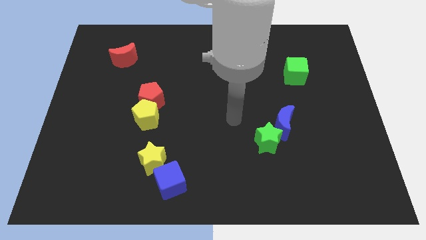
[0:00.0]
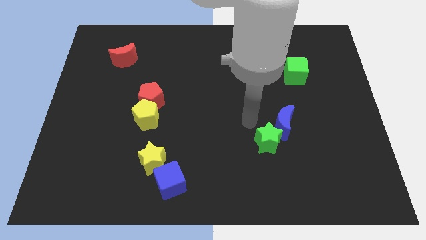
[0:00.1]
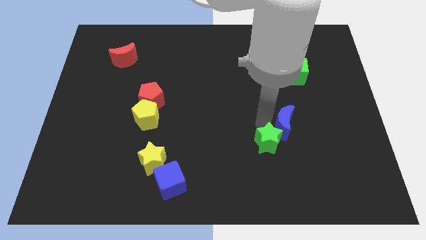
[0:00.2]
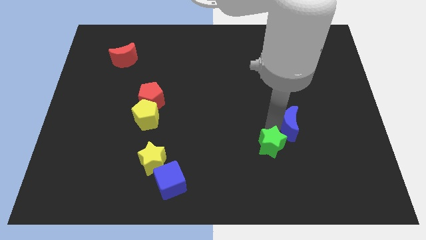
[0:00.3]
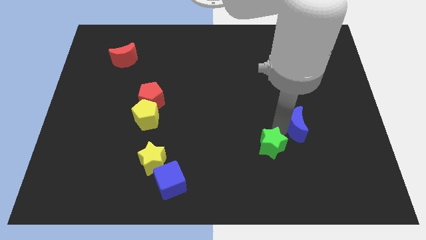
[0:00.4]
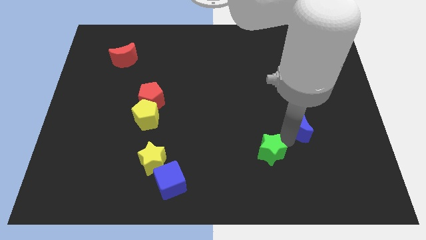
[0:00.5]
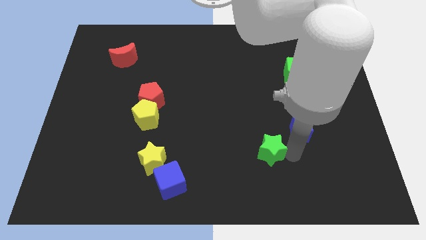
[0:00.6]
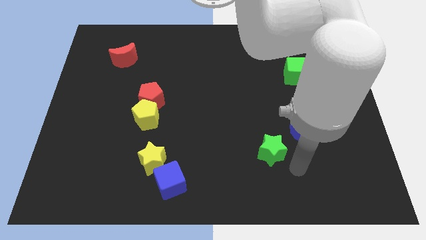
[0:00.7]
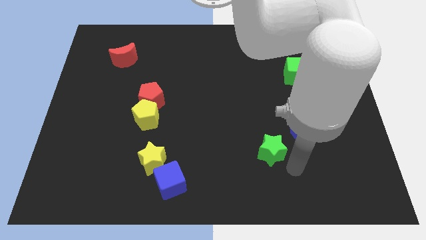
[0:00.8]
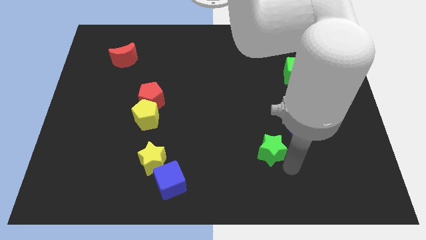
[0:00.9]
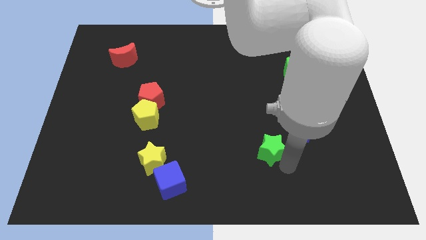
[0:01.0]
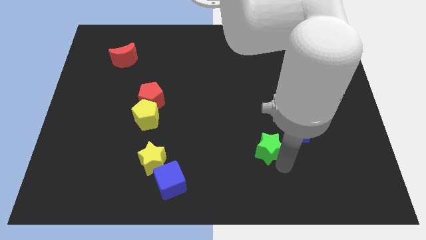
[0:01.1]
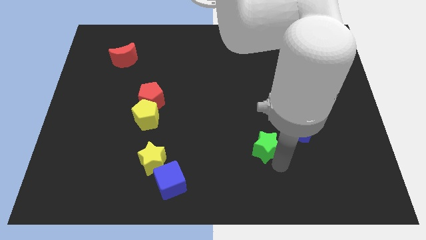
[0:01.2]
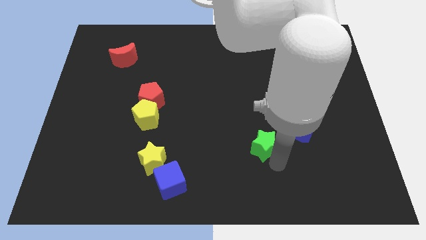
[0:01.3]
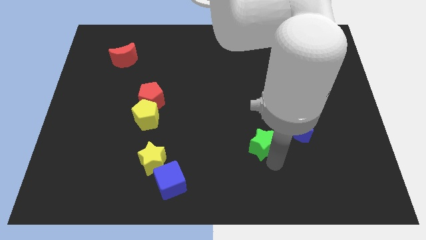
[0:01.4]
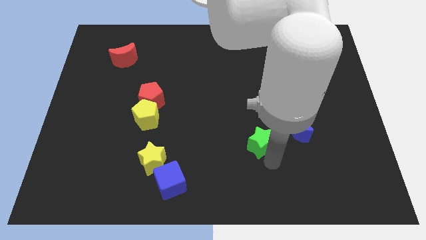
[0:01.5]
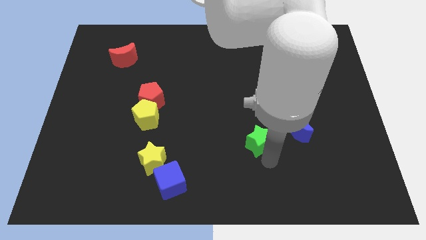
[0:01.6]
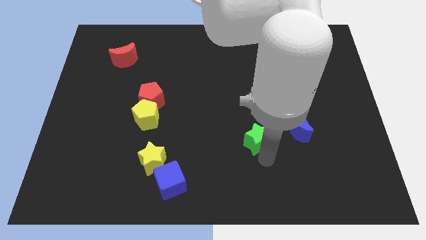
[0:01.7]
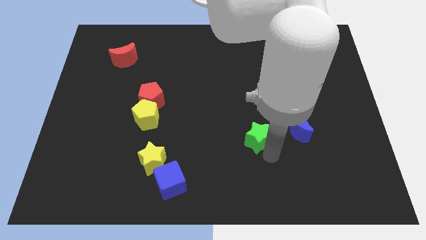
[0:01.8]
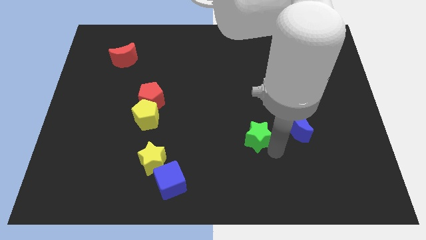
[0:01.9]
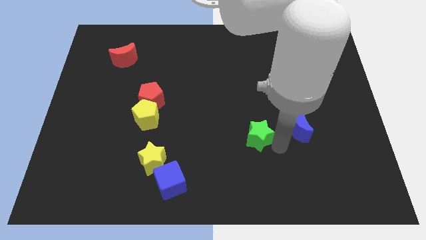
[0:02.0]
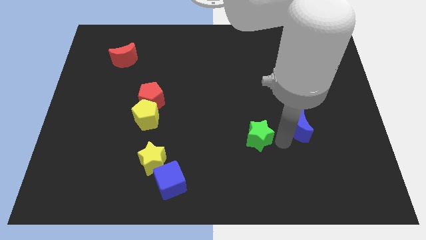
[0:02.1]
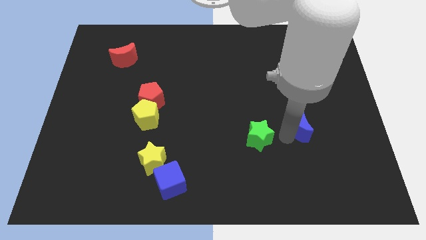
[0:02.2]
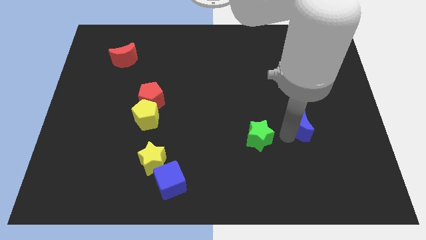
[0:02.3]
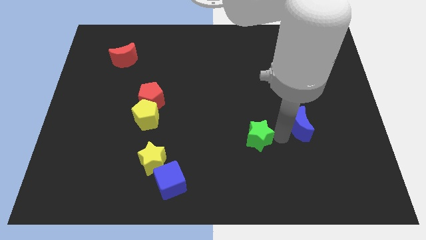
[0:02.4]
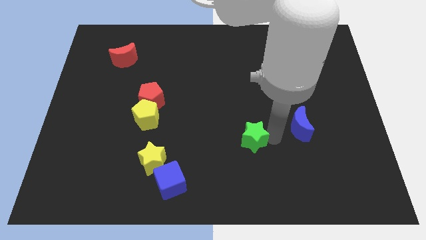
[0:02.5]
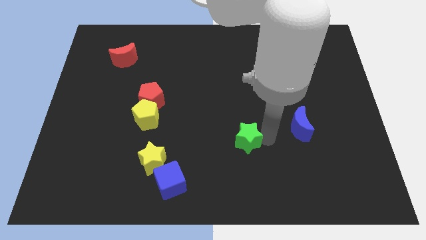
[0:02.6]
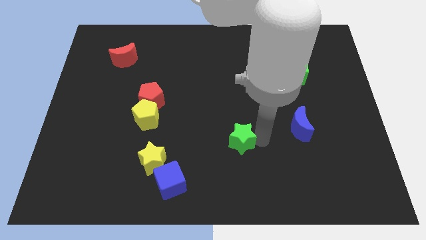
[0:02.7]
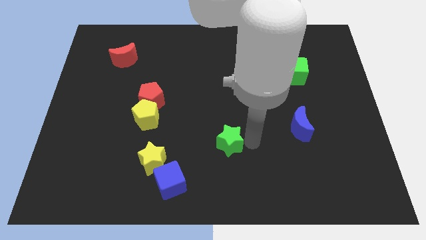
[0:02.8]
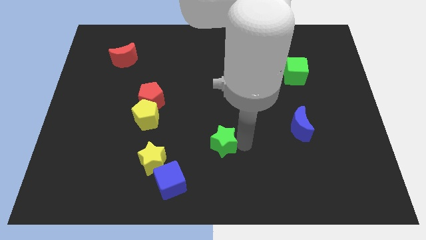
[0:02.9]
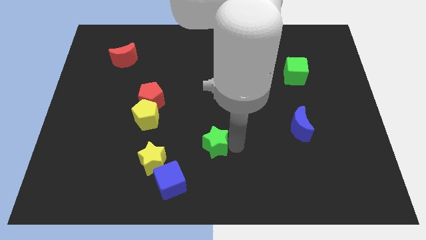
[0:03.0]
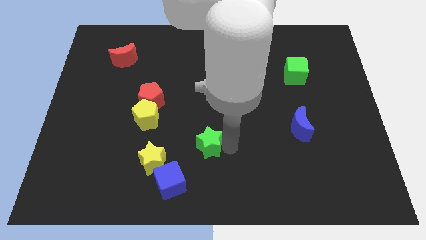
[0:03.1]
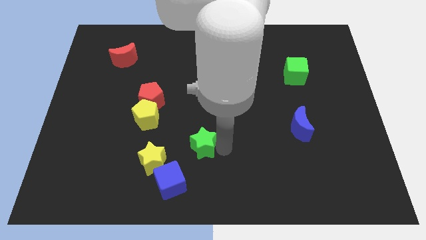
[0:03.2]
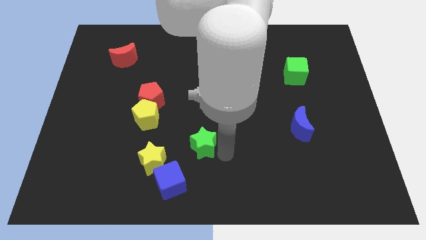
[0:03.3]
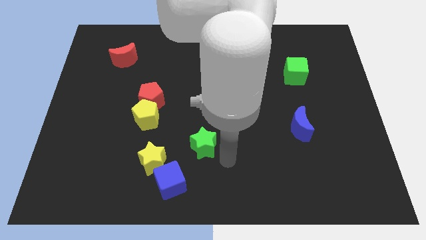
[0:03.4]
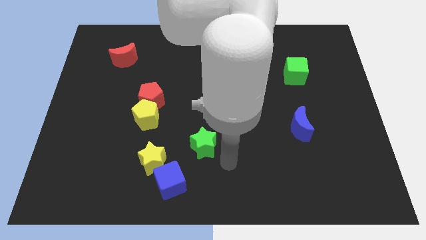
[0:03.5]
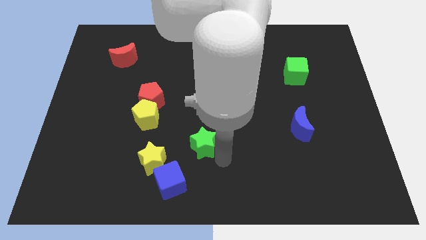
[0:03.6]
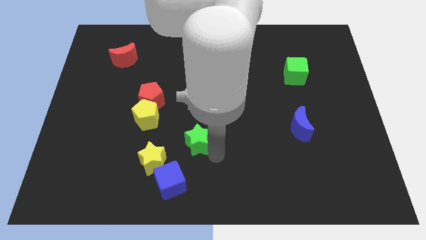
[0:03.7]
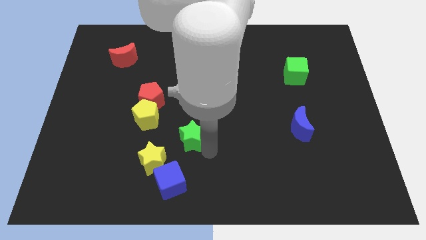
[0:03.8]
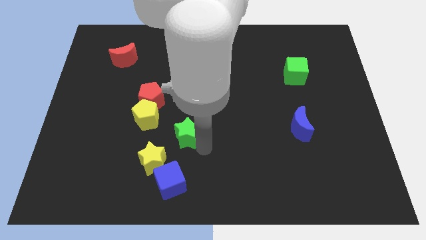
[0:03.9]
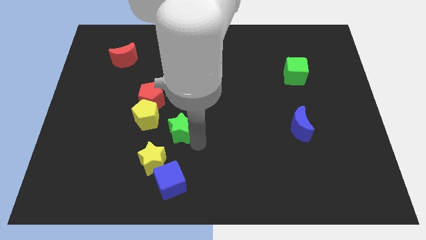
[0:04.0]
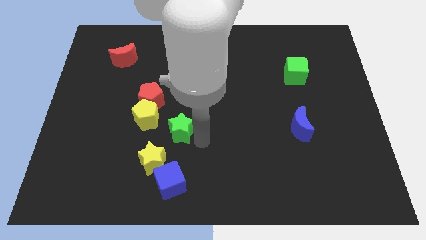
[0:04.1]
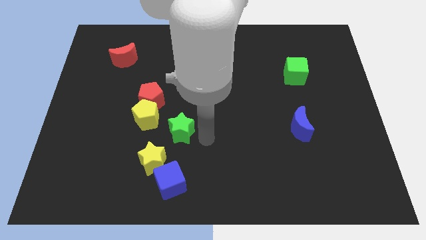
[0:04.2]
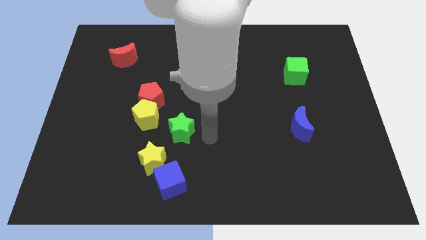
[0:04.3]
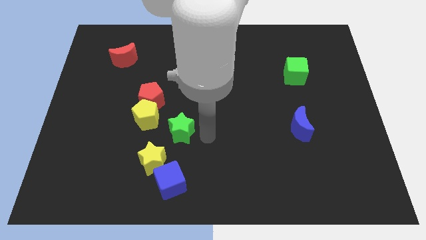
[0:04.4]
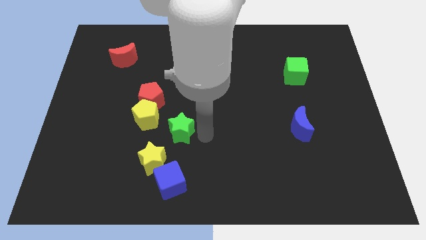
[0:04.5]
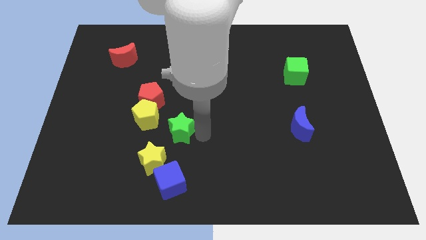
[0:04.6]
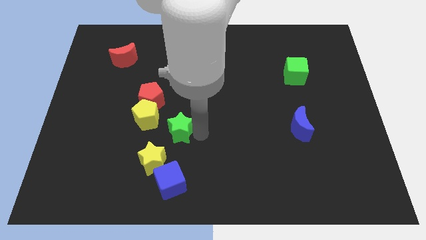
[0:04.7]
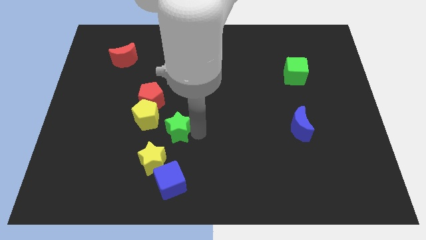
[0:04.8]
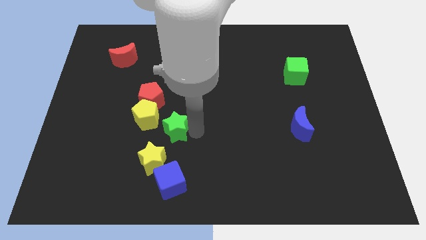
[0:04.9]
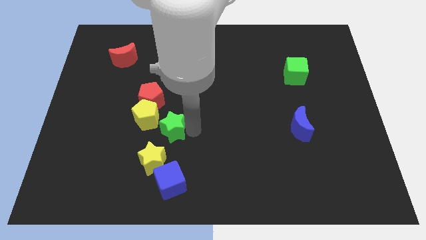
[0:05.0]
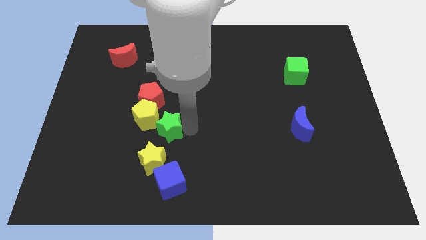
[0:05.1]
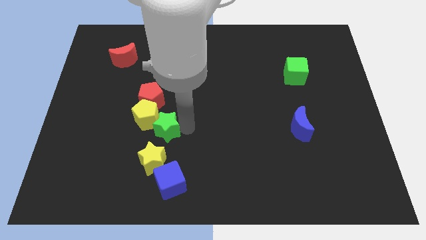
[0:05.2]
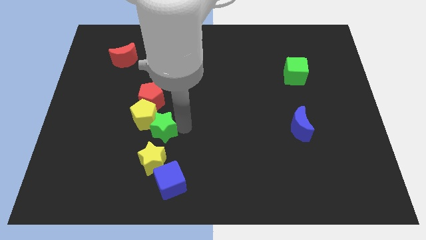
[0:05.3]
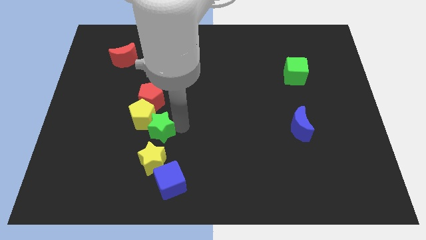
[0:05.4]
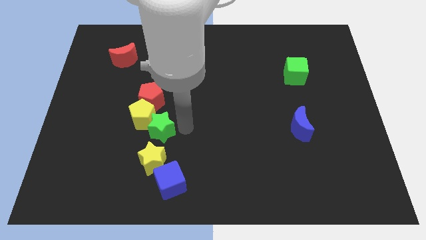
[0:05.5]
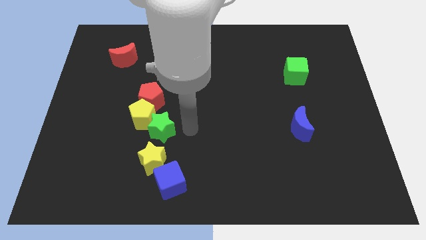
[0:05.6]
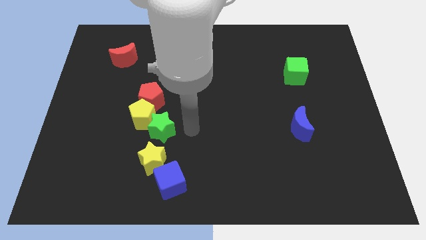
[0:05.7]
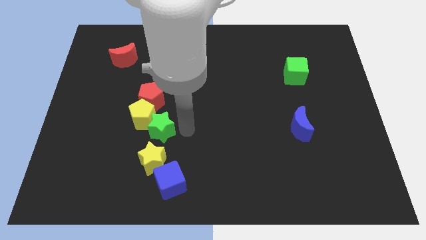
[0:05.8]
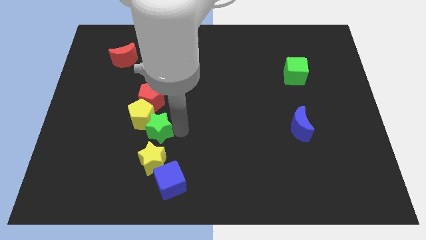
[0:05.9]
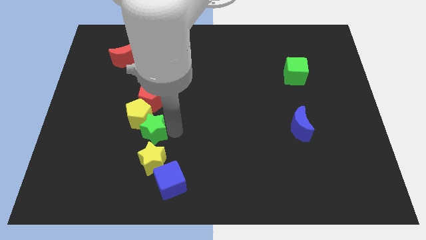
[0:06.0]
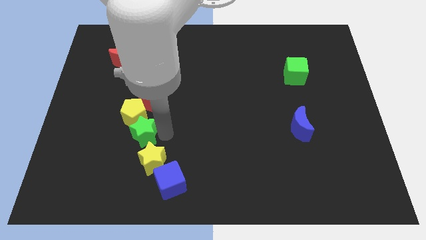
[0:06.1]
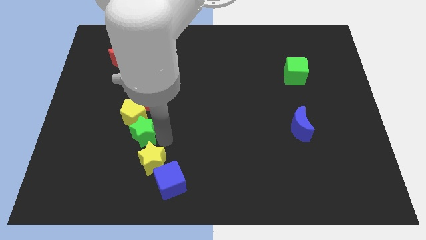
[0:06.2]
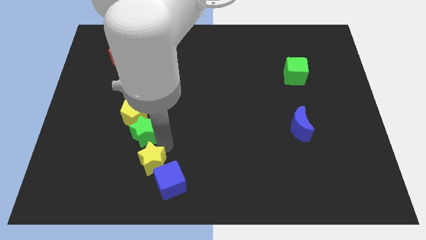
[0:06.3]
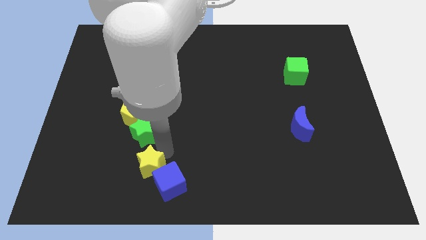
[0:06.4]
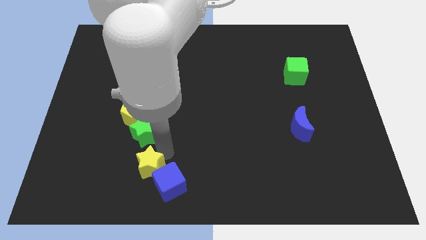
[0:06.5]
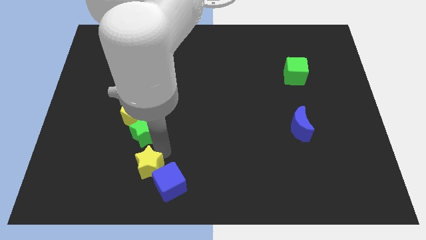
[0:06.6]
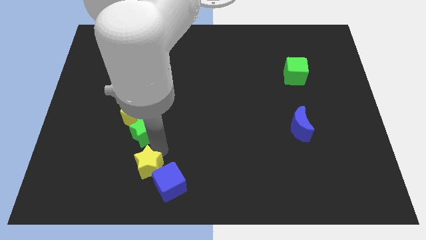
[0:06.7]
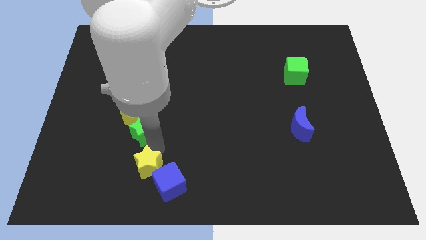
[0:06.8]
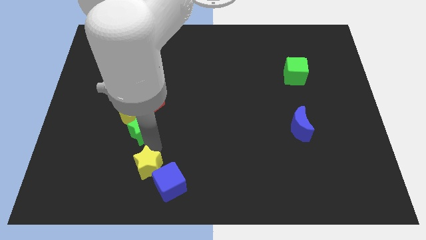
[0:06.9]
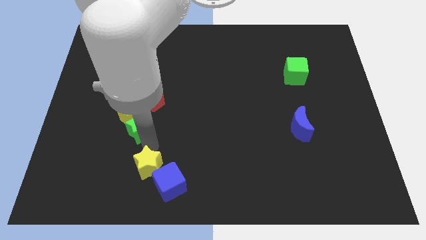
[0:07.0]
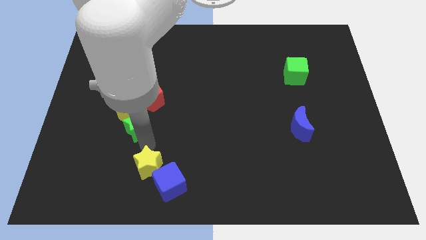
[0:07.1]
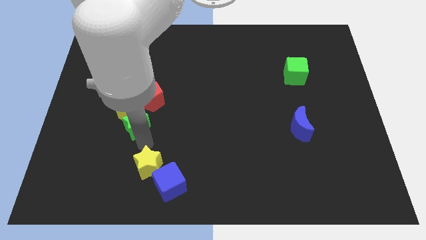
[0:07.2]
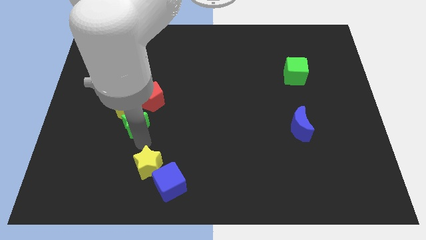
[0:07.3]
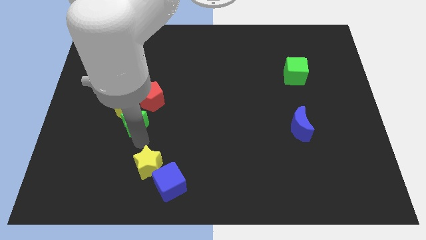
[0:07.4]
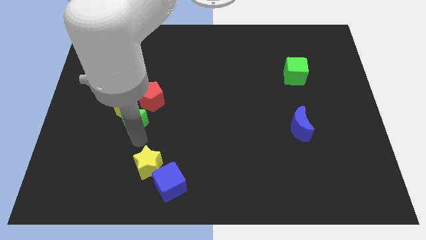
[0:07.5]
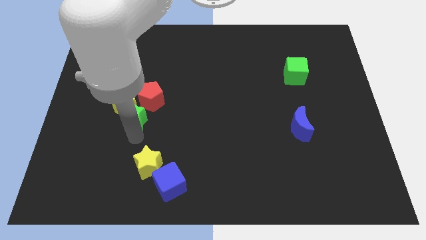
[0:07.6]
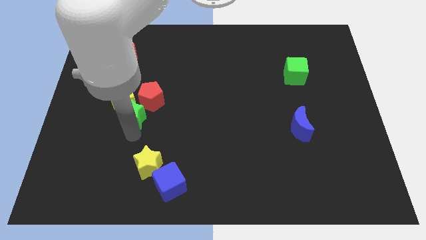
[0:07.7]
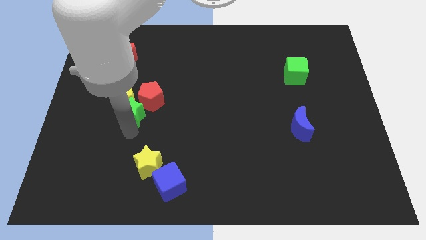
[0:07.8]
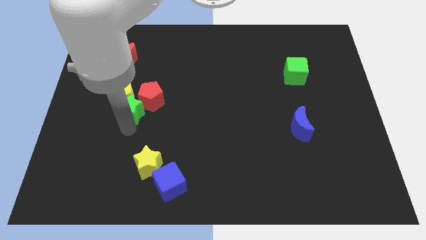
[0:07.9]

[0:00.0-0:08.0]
slide the green star to the left side of the red pentagon
